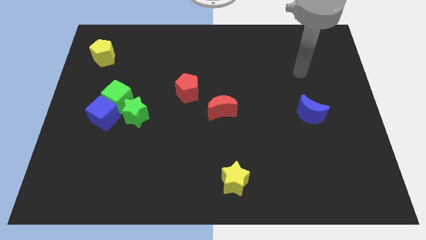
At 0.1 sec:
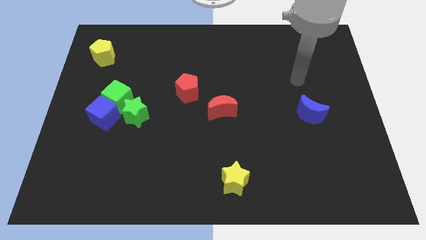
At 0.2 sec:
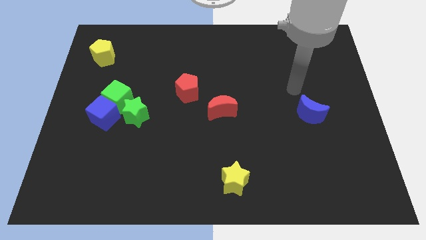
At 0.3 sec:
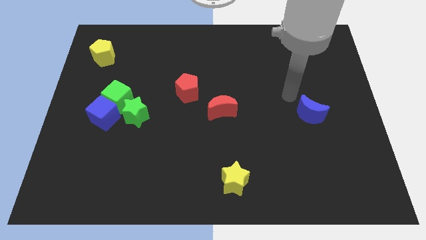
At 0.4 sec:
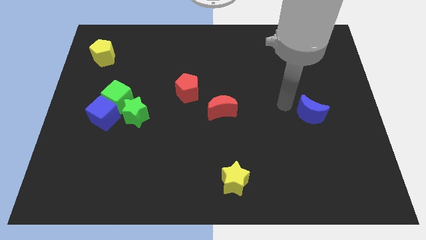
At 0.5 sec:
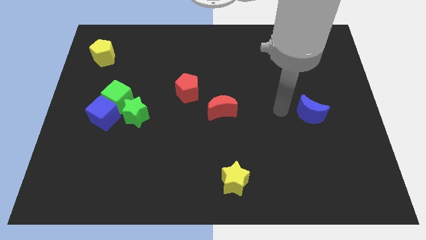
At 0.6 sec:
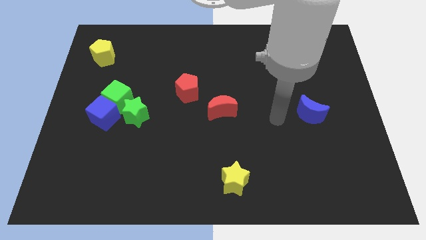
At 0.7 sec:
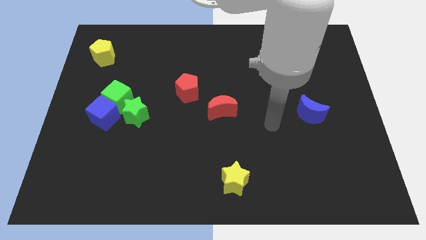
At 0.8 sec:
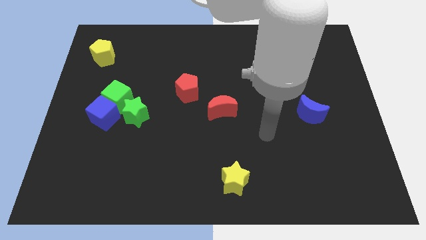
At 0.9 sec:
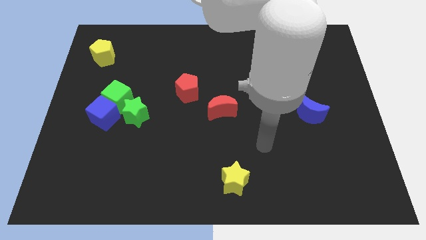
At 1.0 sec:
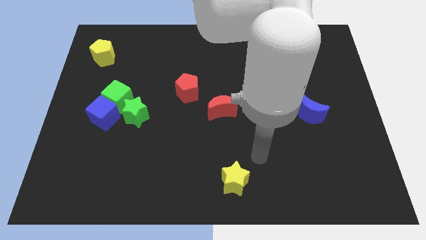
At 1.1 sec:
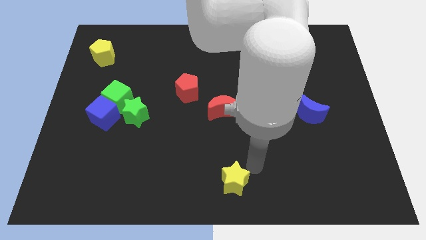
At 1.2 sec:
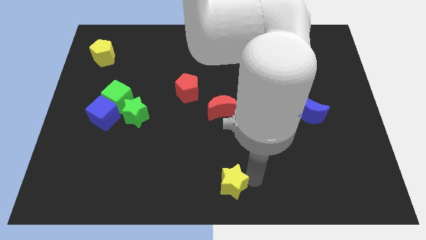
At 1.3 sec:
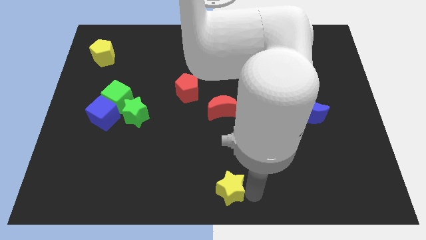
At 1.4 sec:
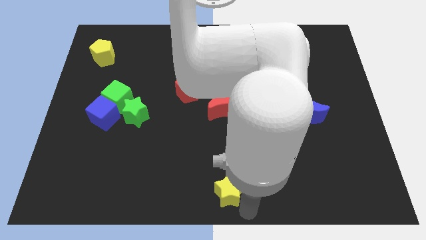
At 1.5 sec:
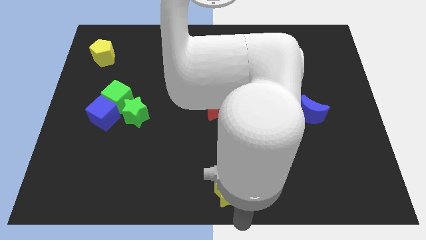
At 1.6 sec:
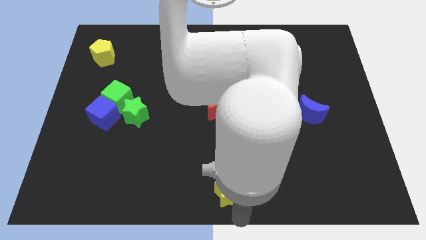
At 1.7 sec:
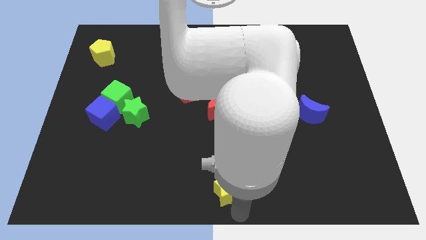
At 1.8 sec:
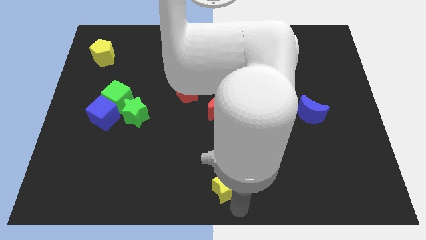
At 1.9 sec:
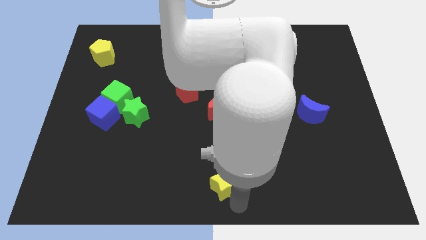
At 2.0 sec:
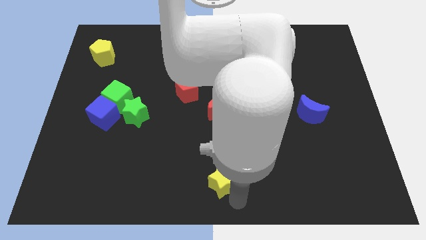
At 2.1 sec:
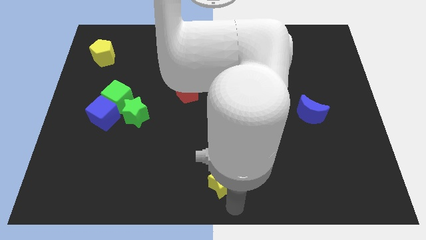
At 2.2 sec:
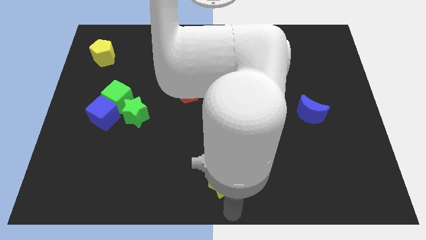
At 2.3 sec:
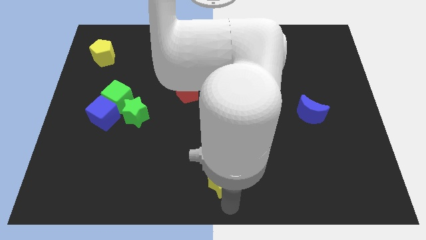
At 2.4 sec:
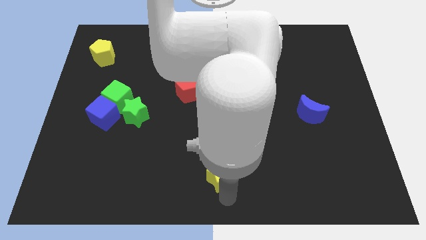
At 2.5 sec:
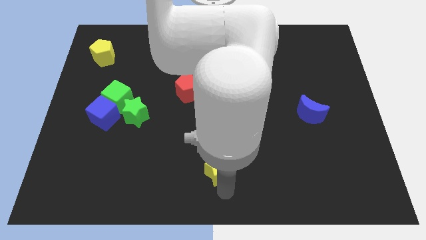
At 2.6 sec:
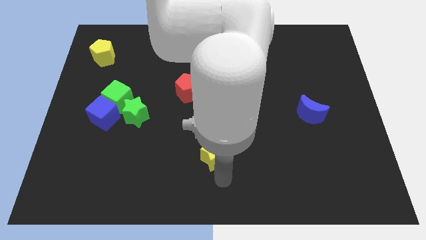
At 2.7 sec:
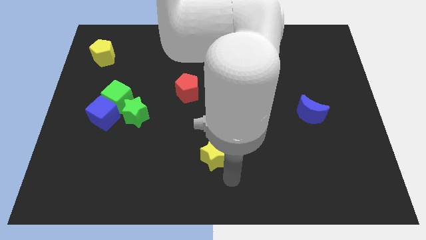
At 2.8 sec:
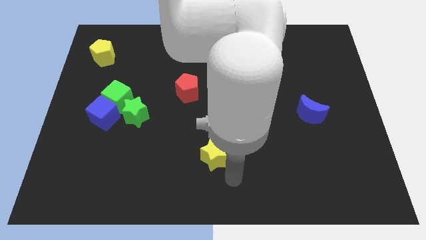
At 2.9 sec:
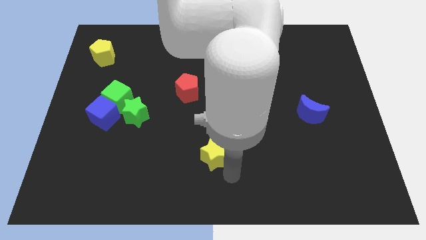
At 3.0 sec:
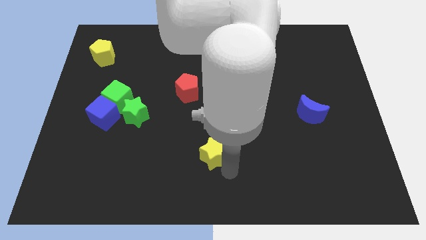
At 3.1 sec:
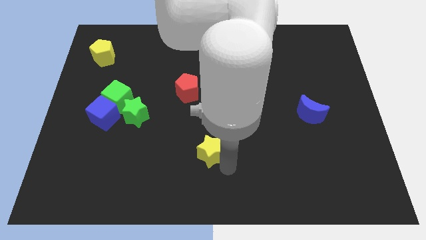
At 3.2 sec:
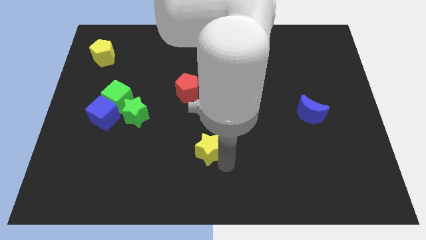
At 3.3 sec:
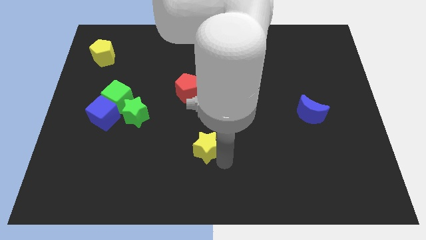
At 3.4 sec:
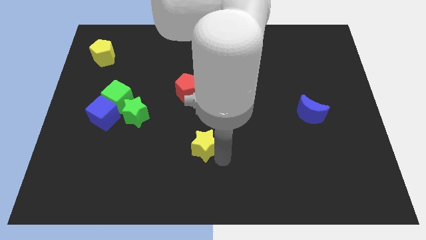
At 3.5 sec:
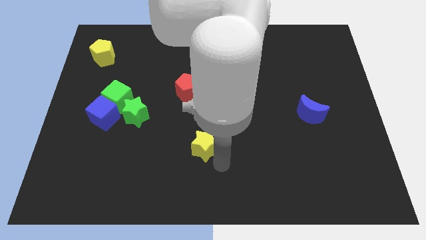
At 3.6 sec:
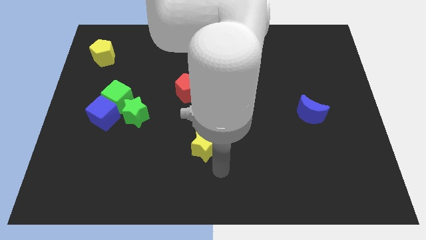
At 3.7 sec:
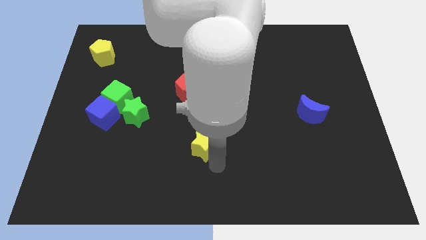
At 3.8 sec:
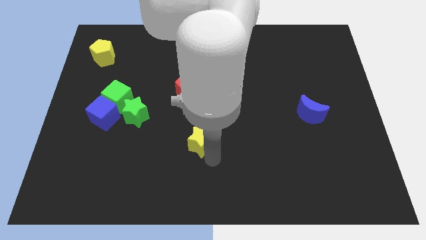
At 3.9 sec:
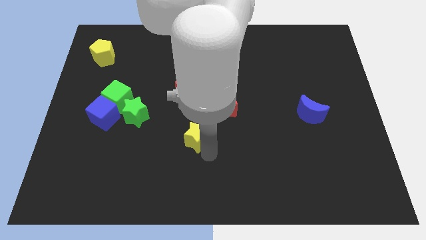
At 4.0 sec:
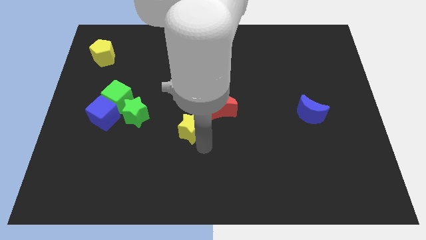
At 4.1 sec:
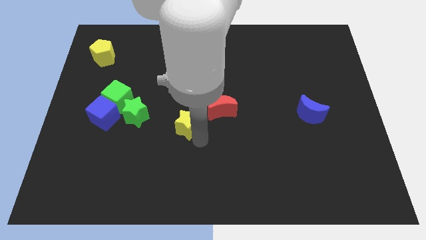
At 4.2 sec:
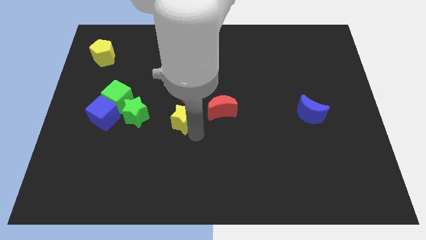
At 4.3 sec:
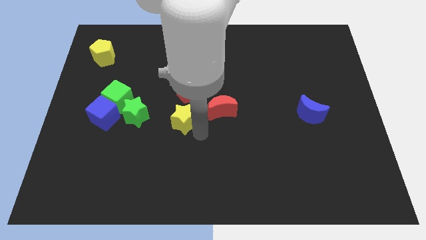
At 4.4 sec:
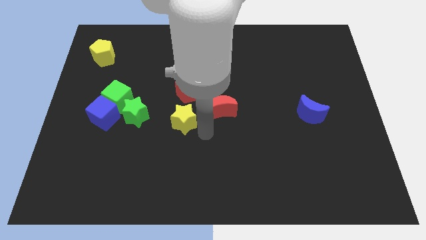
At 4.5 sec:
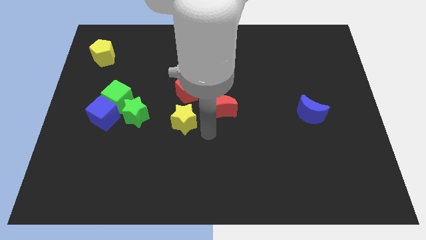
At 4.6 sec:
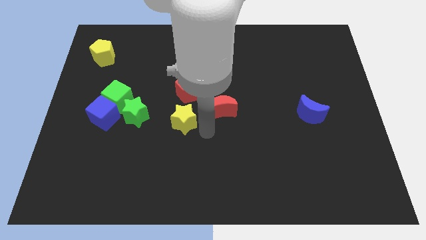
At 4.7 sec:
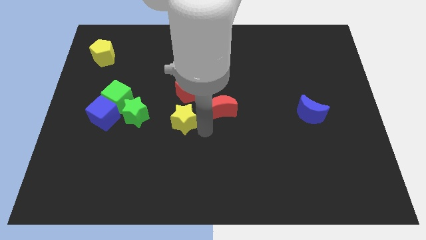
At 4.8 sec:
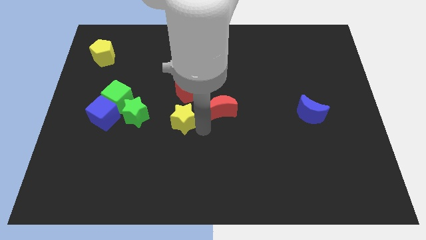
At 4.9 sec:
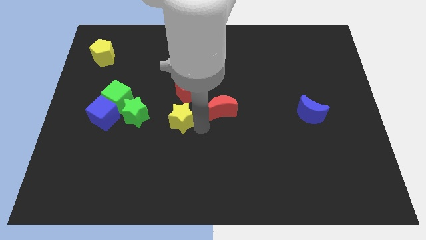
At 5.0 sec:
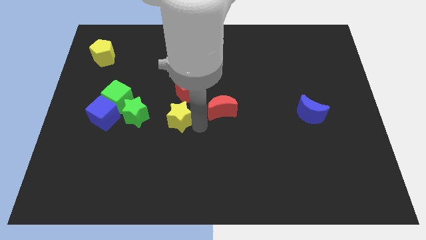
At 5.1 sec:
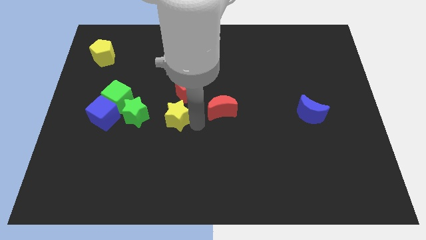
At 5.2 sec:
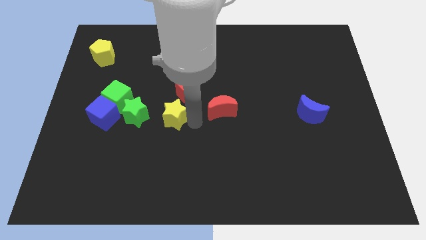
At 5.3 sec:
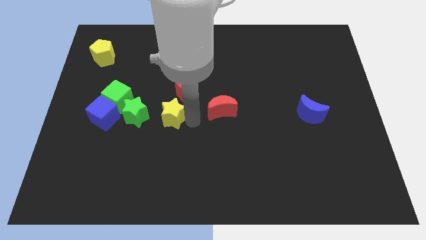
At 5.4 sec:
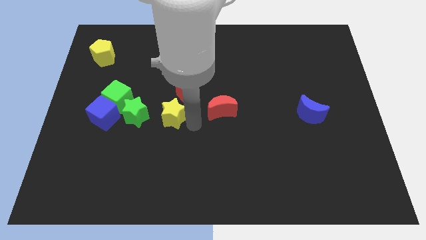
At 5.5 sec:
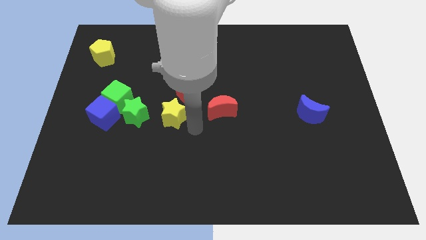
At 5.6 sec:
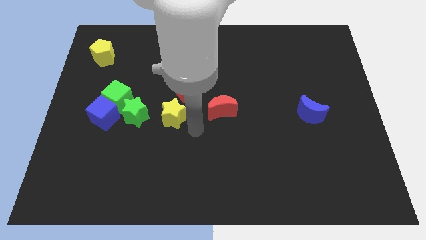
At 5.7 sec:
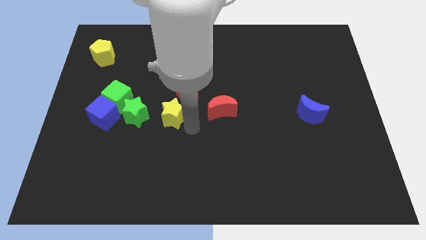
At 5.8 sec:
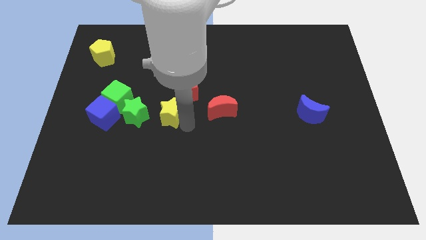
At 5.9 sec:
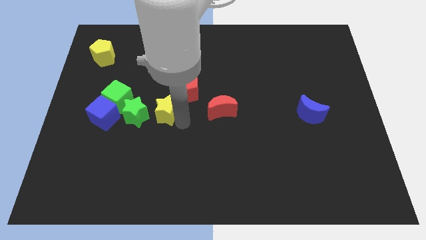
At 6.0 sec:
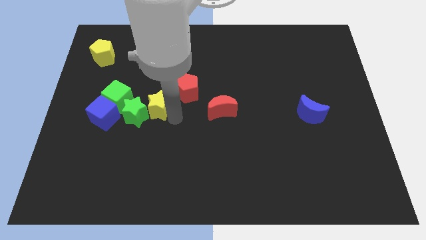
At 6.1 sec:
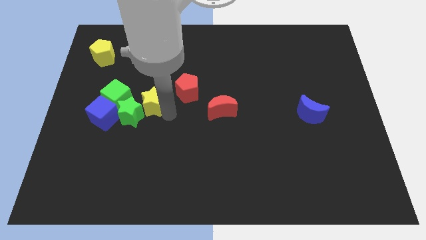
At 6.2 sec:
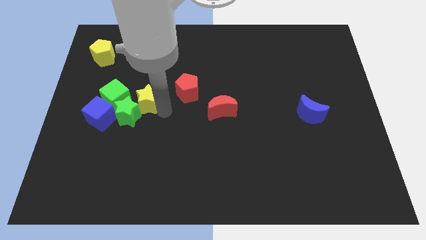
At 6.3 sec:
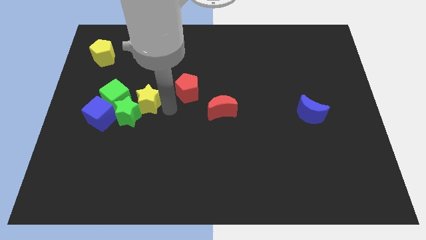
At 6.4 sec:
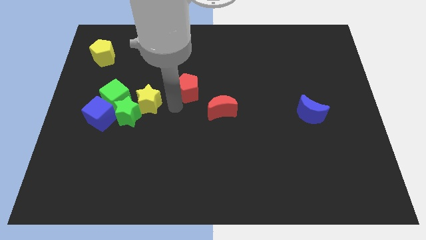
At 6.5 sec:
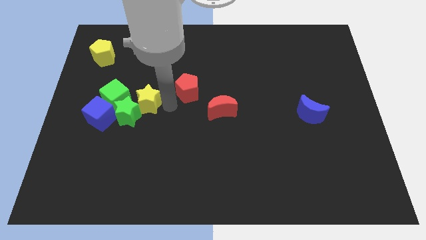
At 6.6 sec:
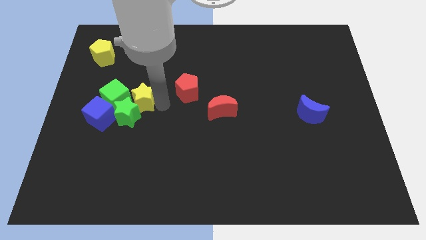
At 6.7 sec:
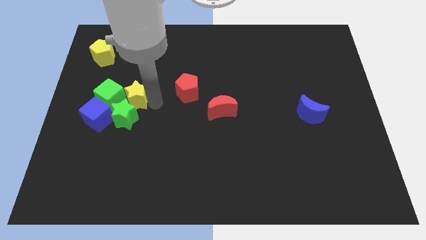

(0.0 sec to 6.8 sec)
put the yellow star close to the green cube
